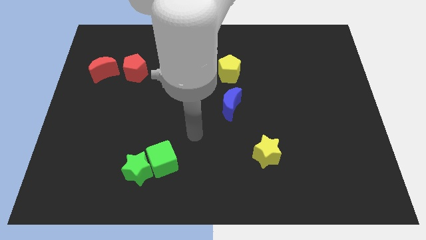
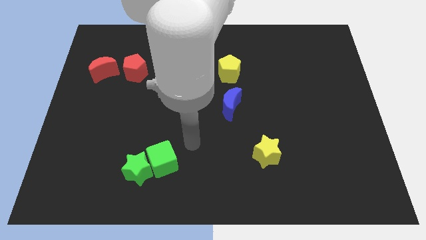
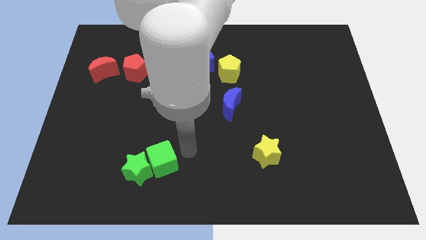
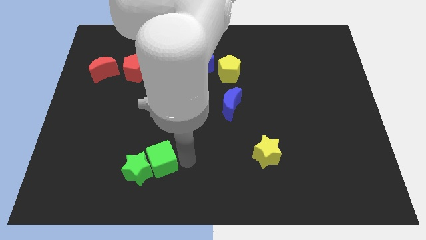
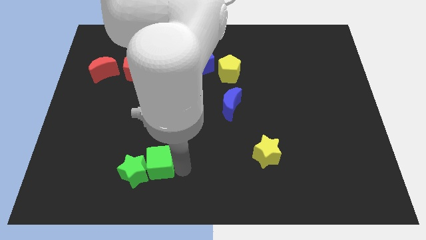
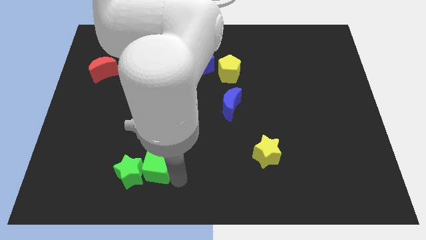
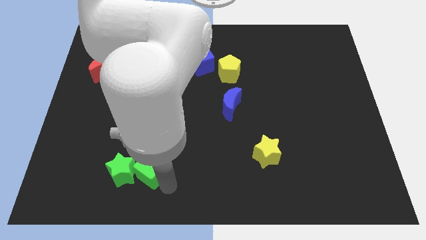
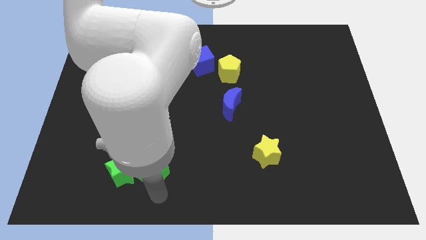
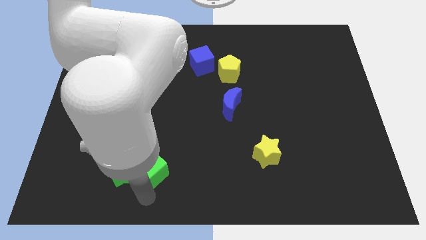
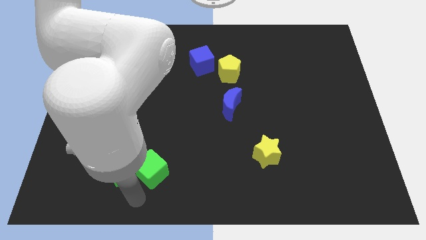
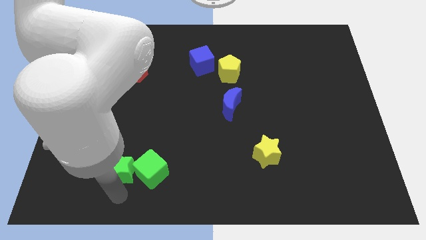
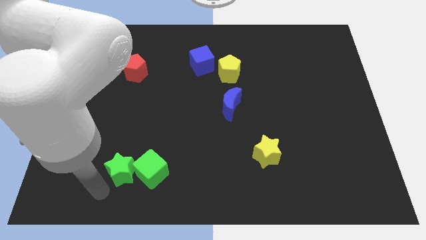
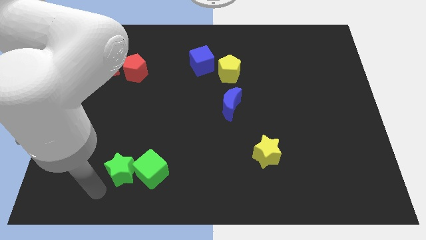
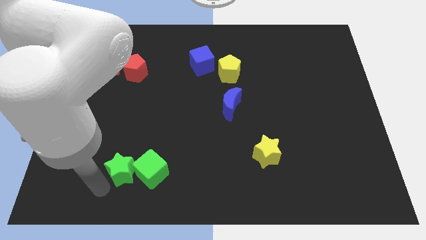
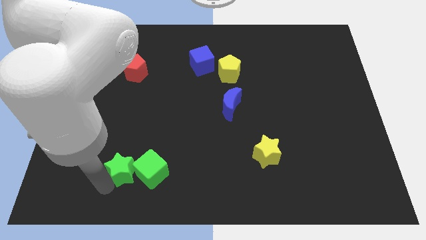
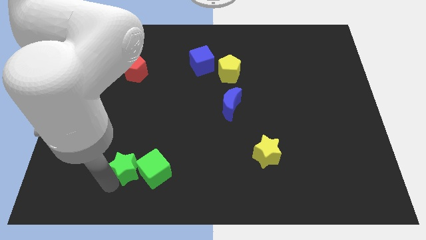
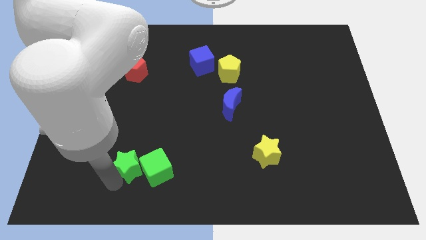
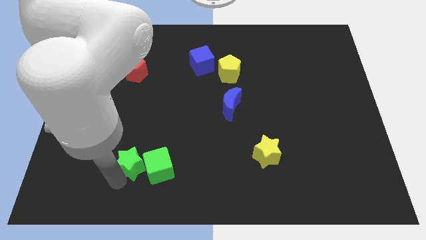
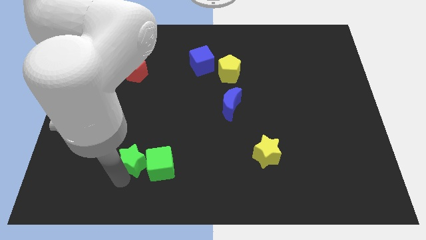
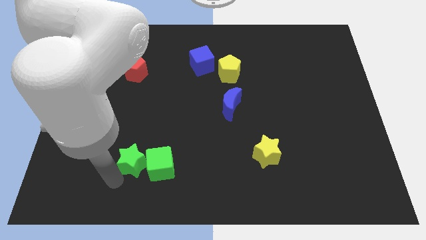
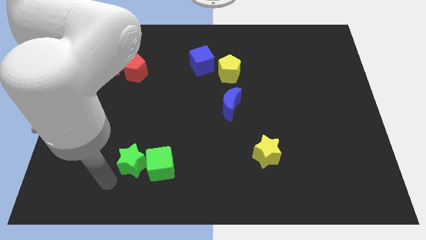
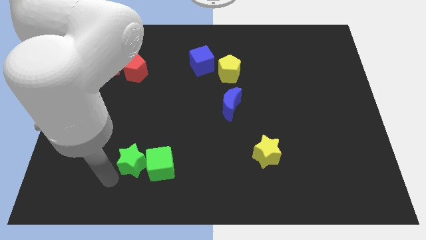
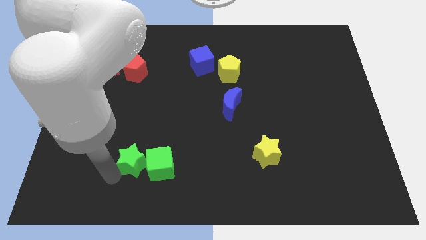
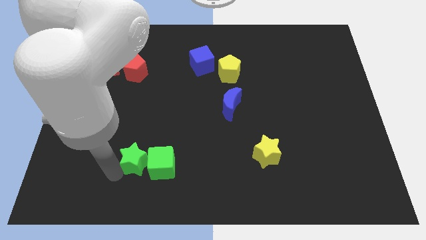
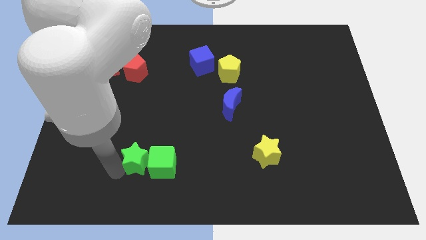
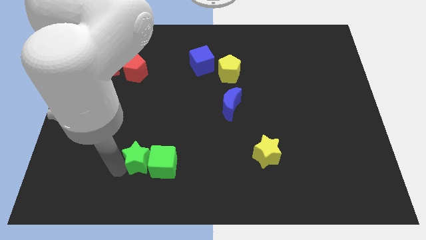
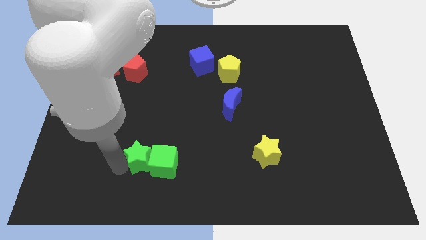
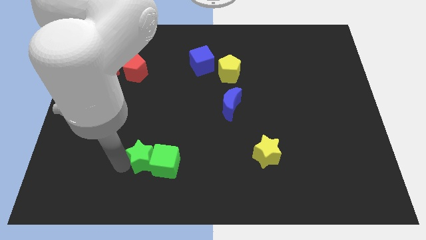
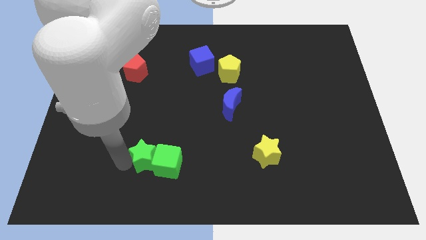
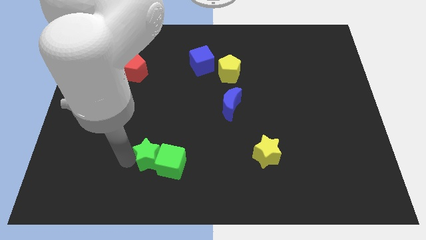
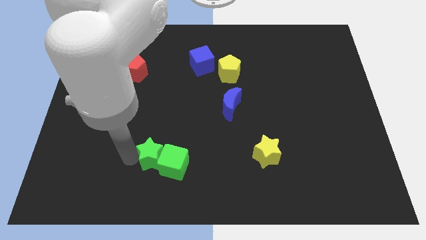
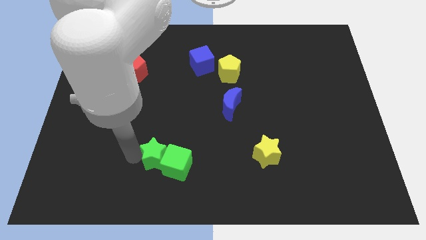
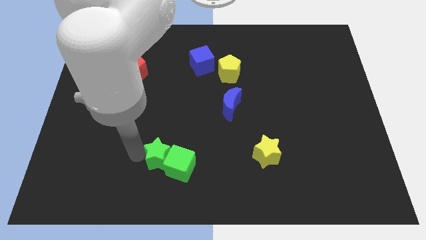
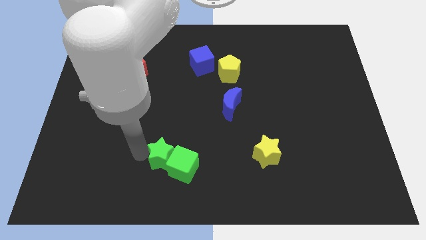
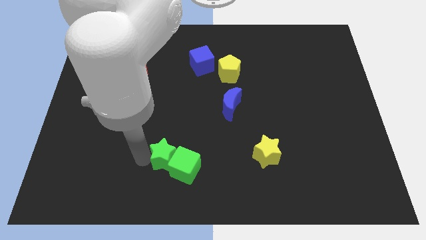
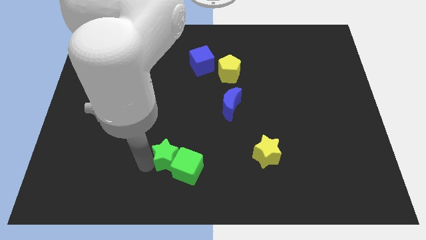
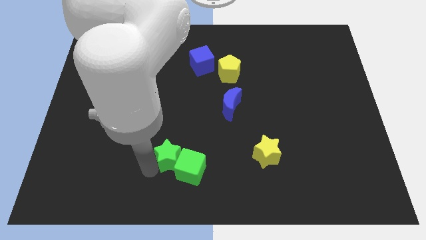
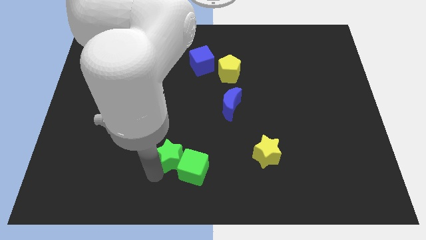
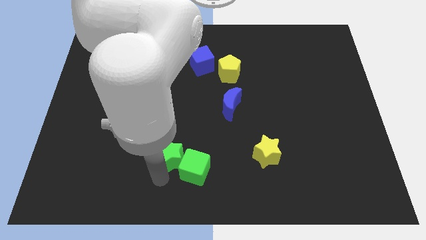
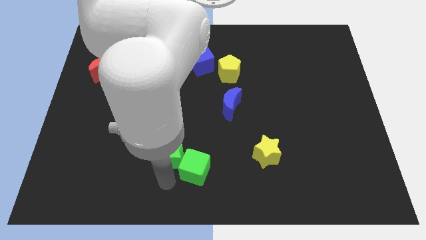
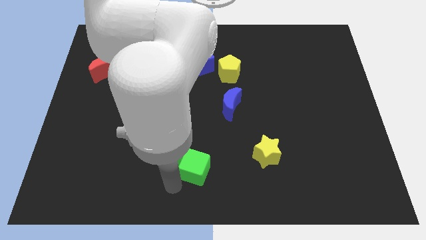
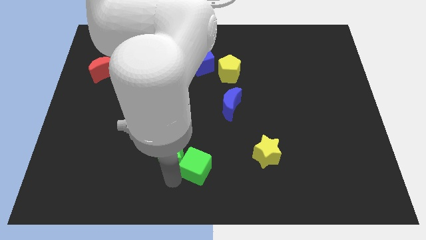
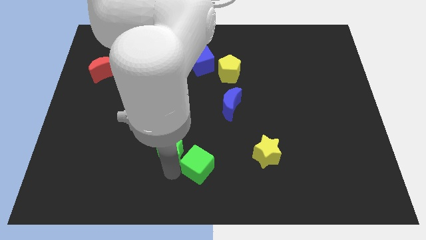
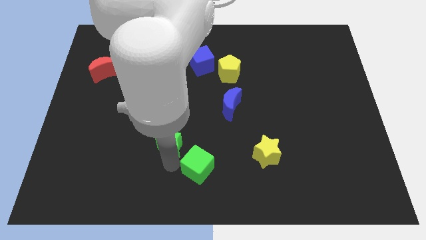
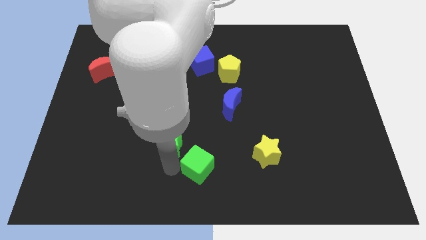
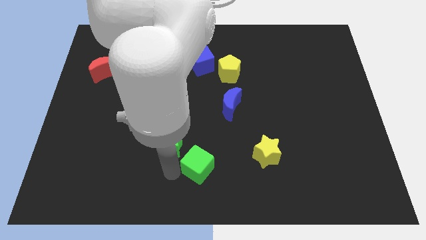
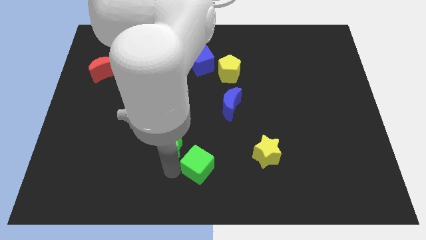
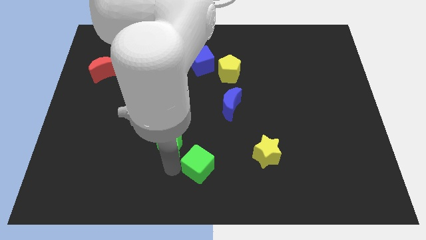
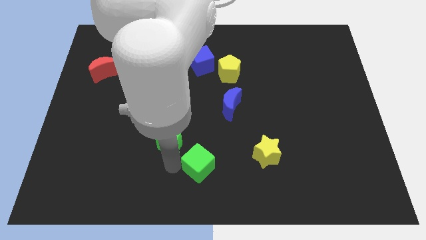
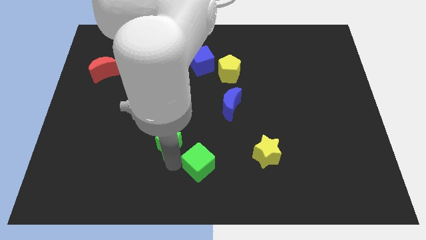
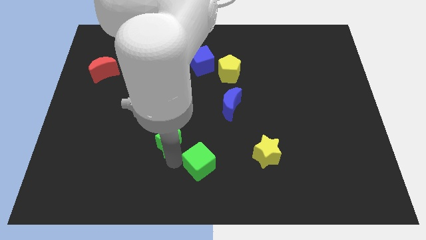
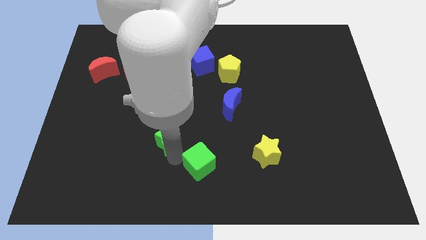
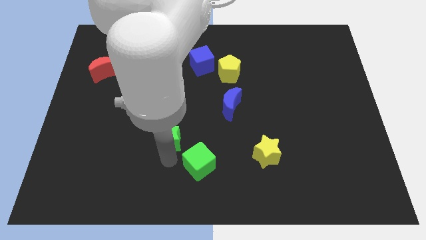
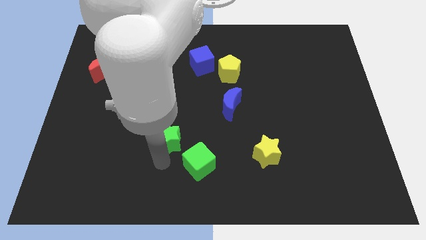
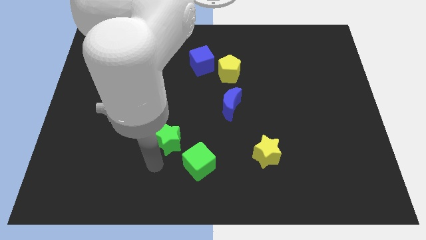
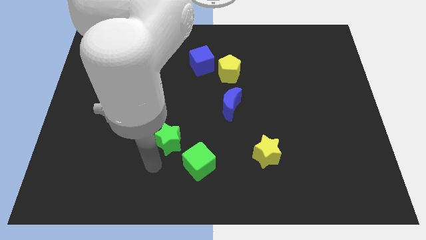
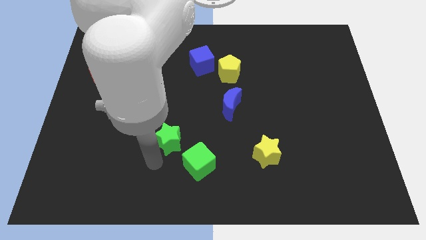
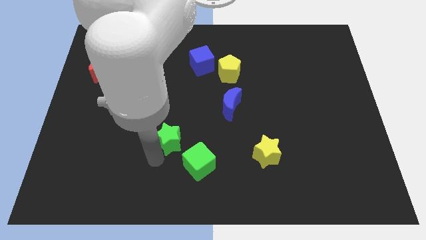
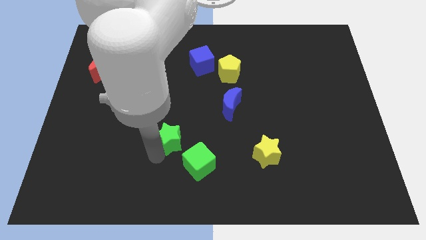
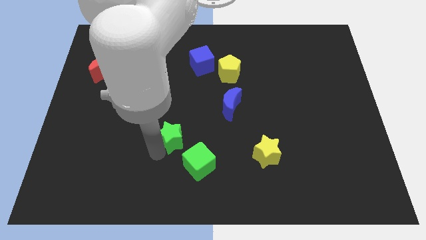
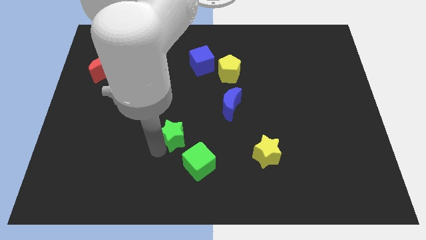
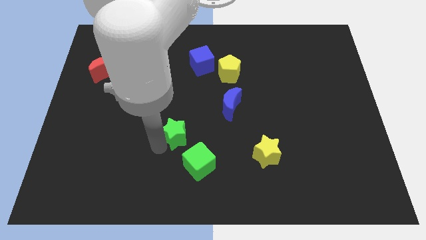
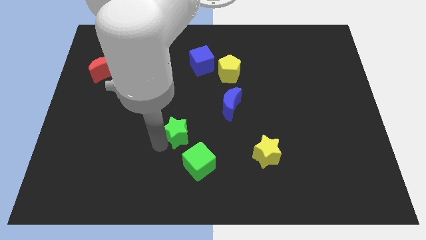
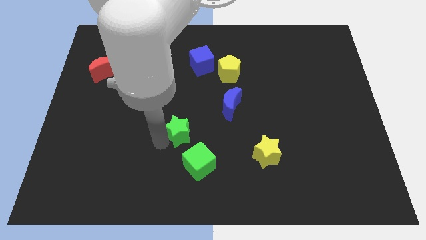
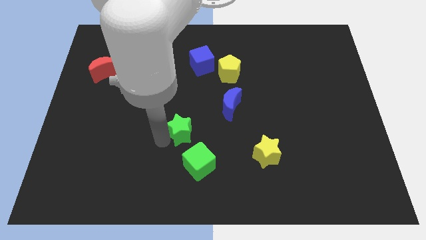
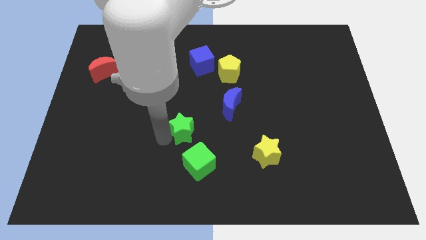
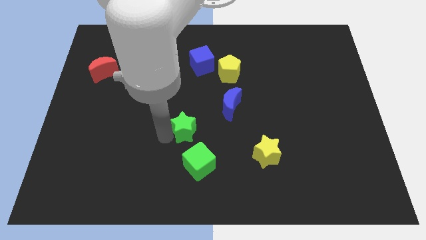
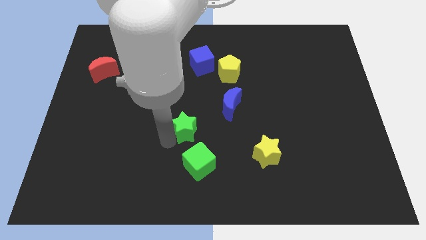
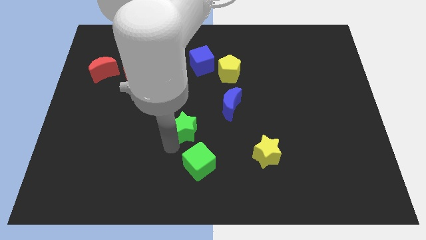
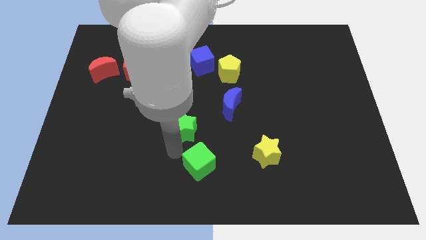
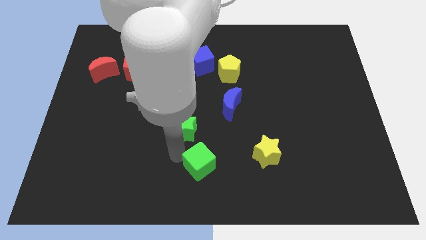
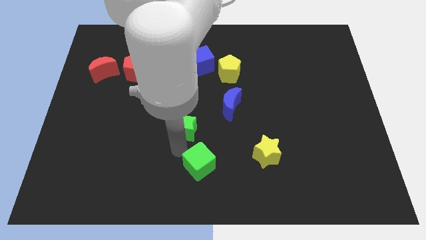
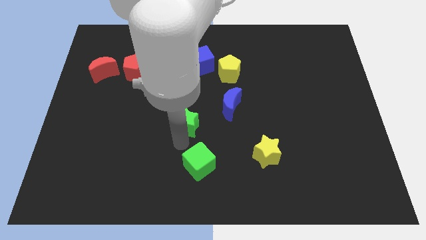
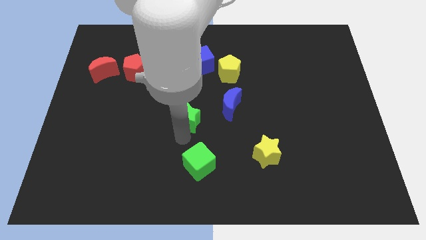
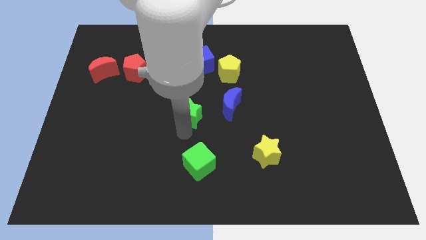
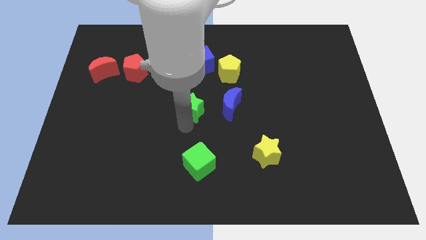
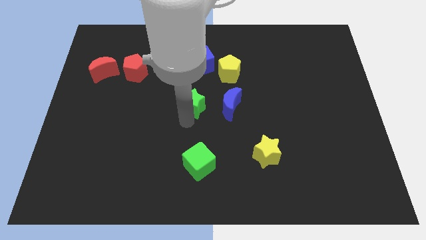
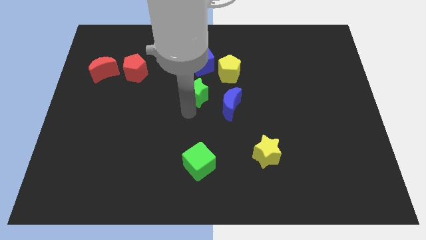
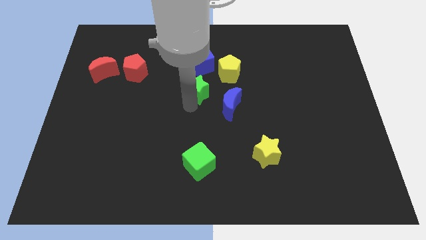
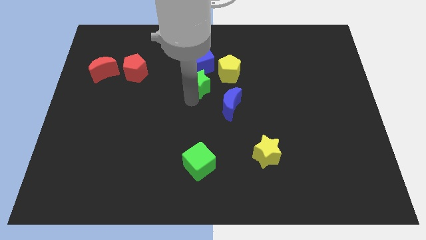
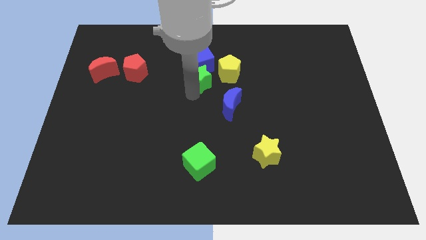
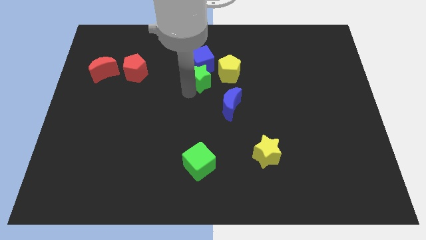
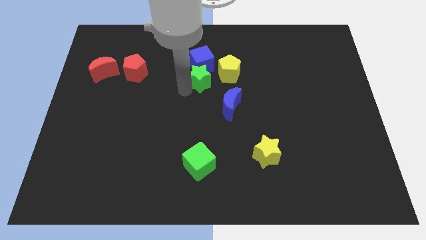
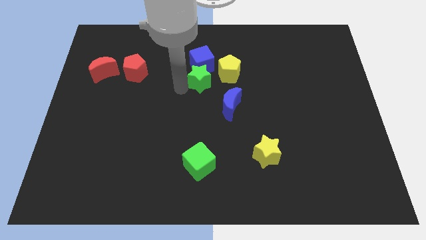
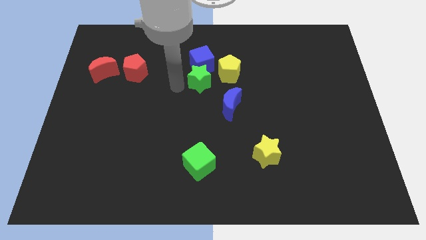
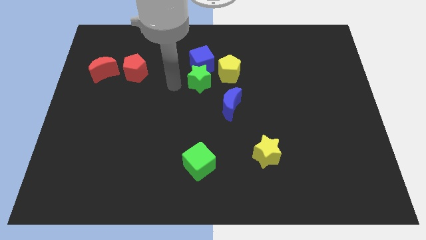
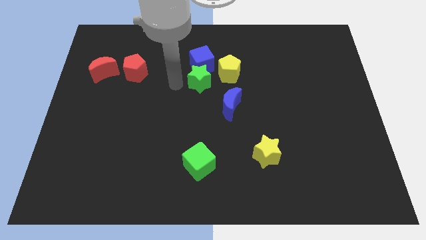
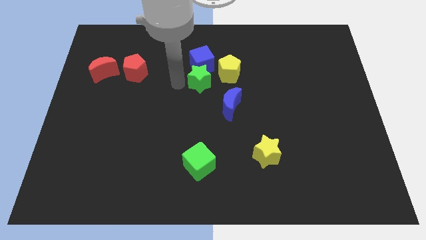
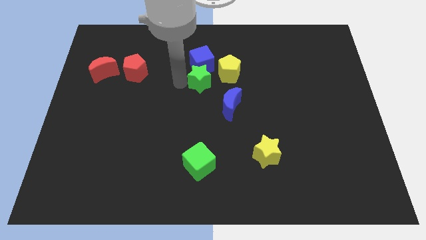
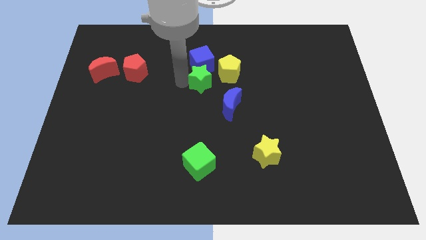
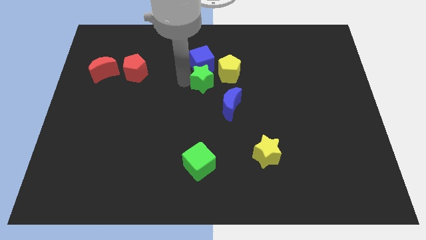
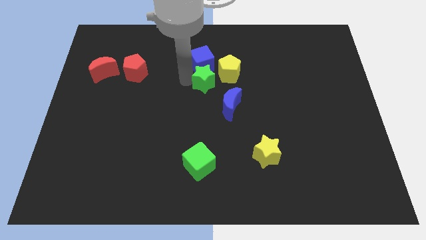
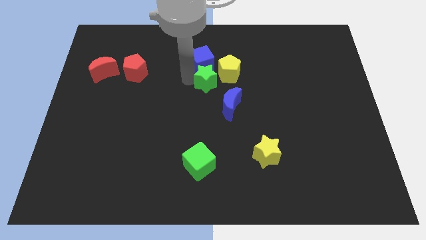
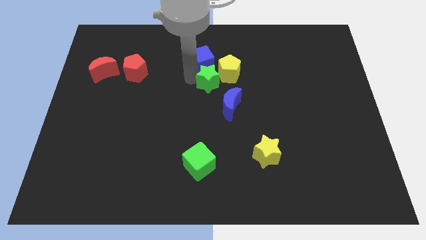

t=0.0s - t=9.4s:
push the green star close to the yellow pentagon
